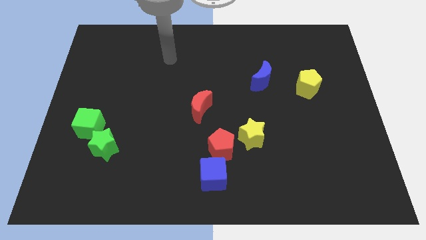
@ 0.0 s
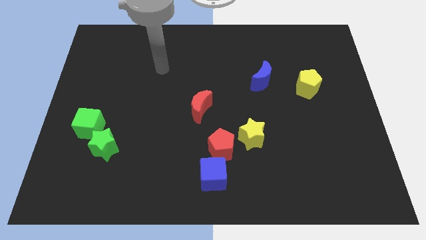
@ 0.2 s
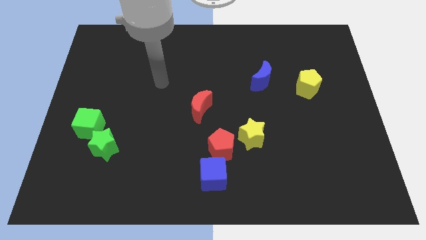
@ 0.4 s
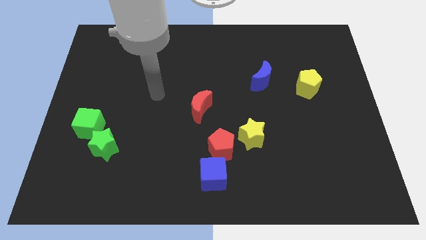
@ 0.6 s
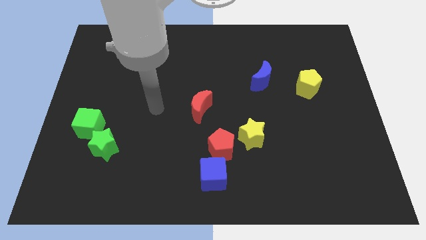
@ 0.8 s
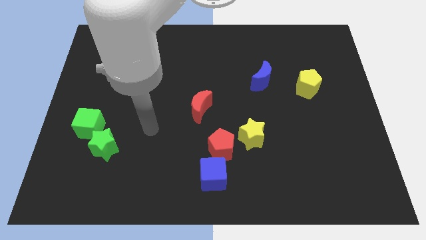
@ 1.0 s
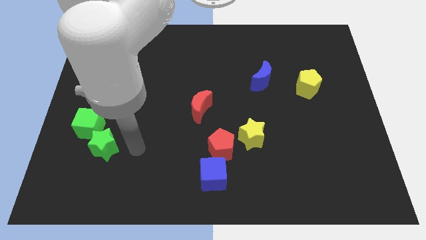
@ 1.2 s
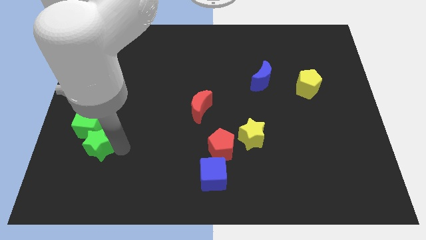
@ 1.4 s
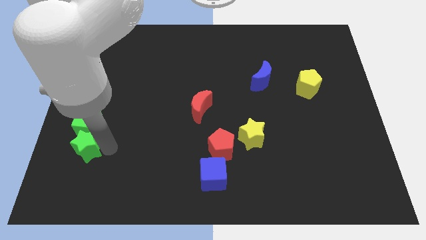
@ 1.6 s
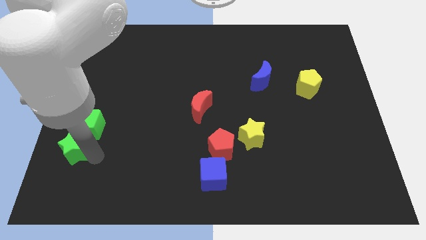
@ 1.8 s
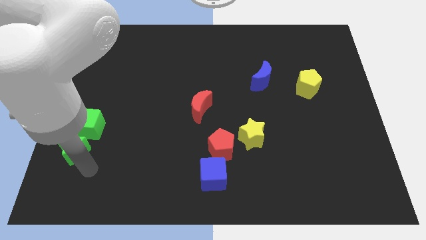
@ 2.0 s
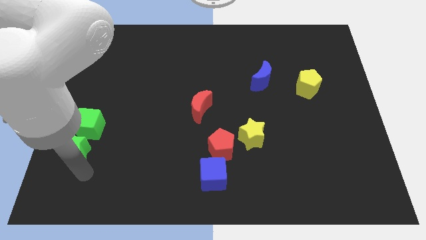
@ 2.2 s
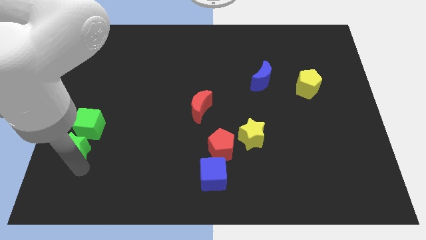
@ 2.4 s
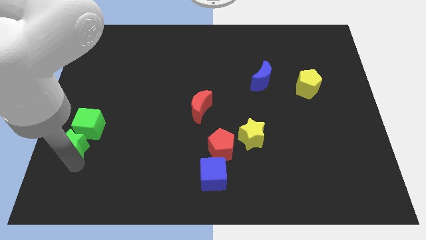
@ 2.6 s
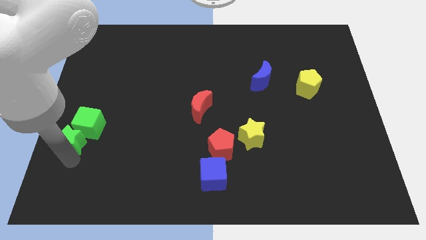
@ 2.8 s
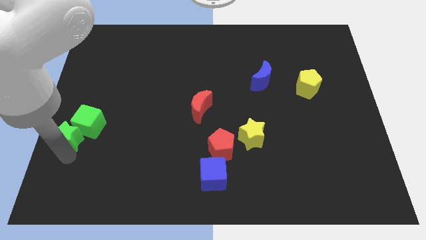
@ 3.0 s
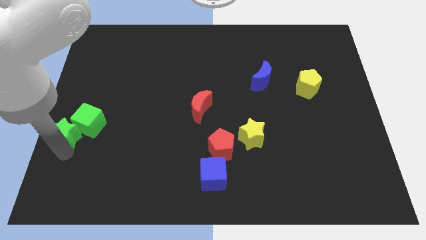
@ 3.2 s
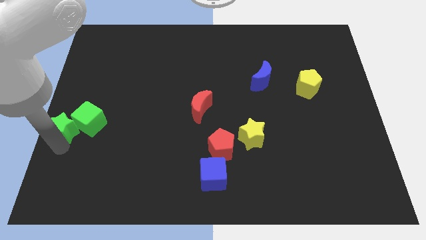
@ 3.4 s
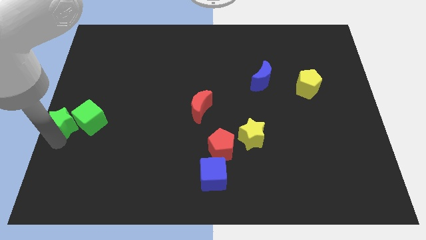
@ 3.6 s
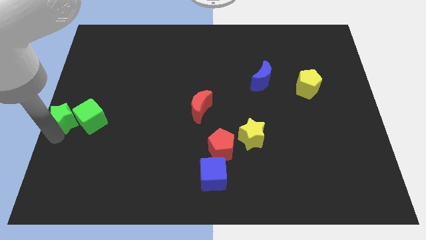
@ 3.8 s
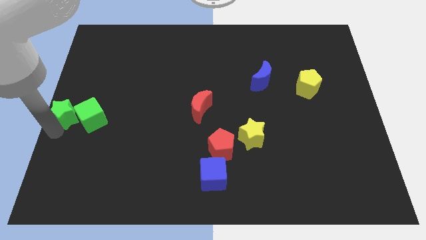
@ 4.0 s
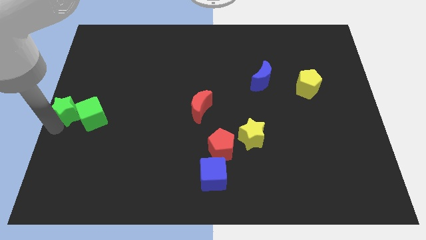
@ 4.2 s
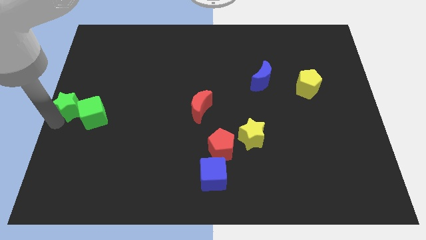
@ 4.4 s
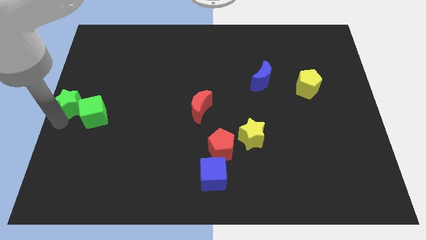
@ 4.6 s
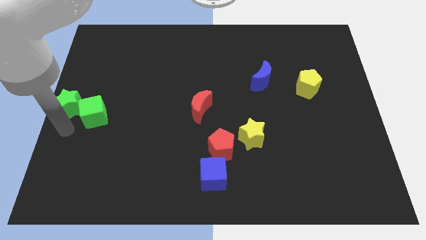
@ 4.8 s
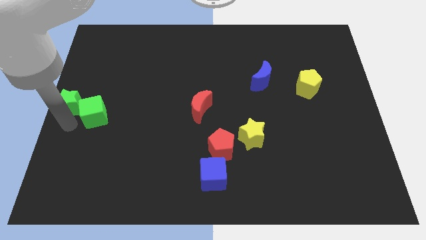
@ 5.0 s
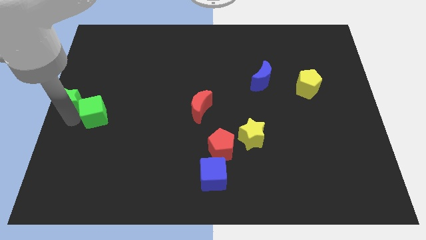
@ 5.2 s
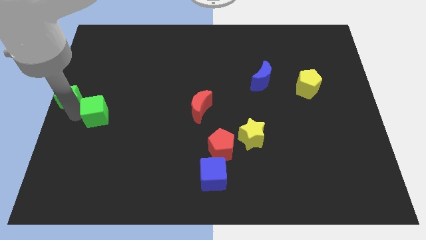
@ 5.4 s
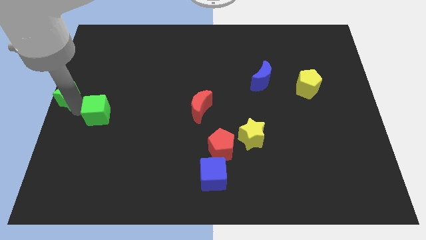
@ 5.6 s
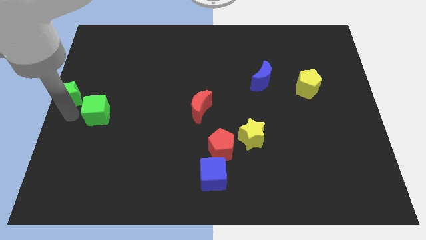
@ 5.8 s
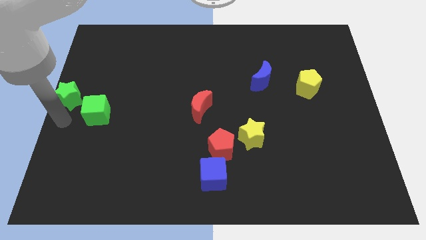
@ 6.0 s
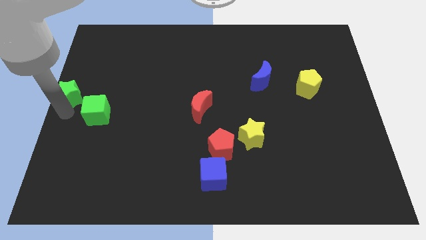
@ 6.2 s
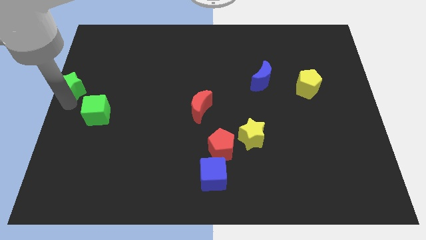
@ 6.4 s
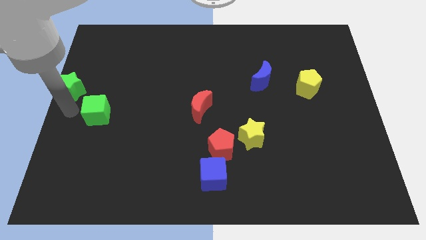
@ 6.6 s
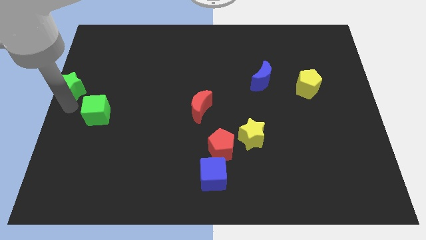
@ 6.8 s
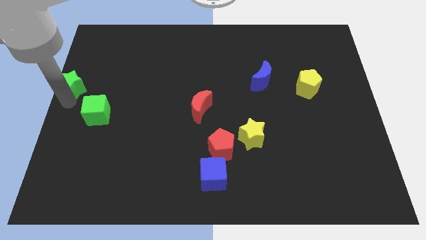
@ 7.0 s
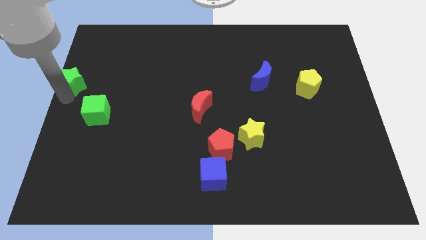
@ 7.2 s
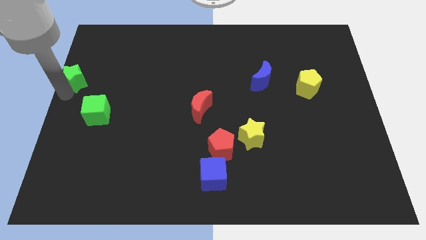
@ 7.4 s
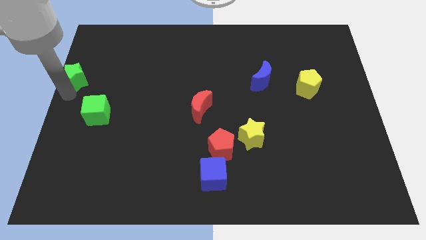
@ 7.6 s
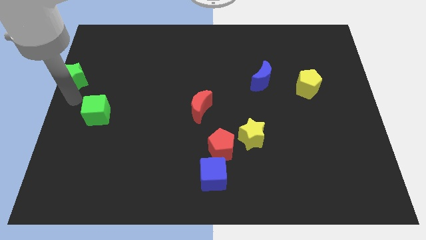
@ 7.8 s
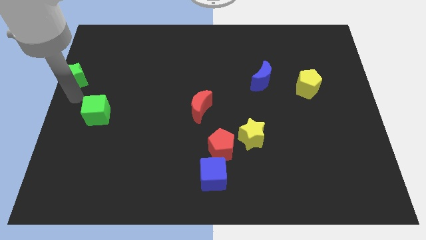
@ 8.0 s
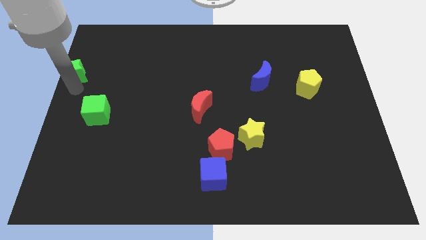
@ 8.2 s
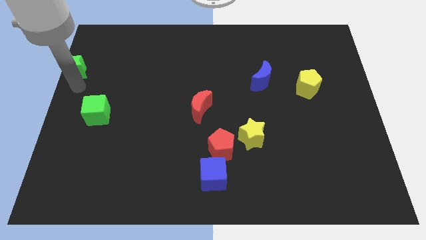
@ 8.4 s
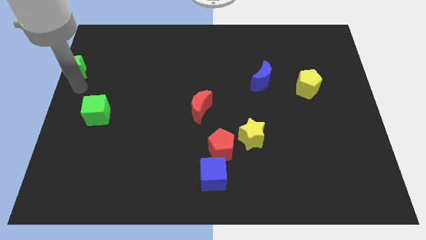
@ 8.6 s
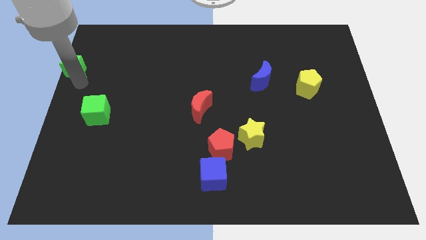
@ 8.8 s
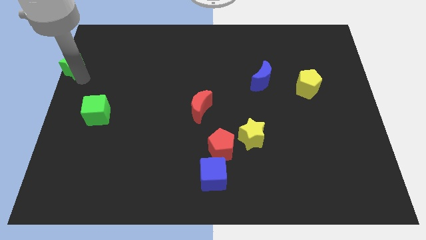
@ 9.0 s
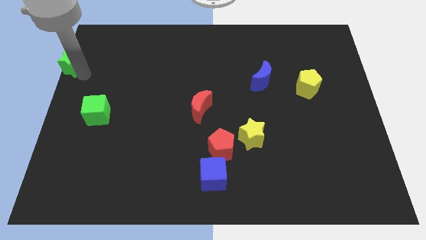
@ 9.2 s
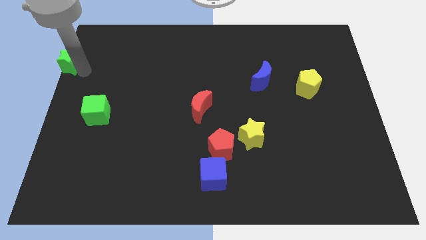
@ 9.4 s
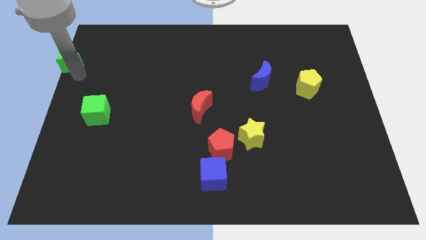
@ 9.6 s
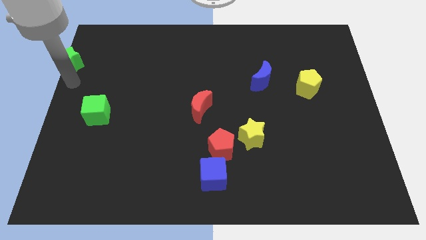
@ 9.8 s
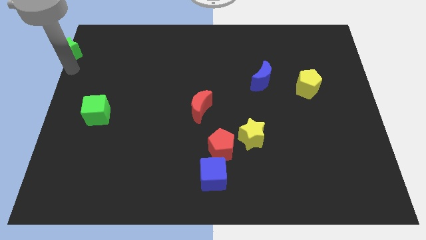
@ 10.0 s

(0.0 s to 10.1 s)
put the green star to the top left of the board

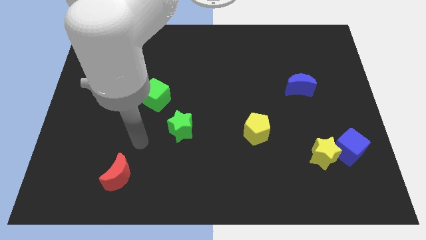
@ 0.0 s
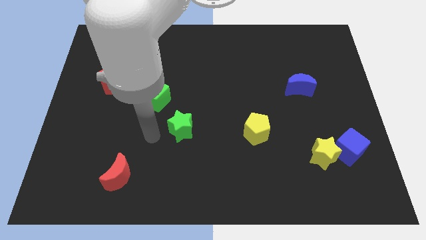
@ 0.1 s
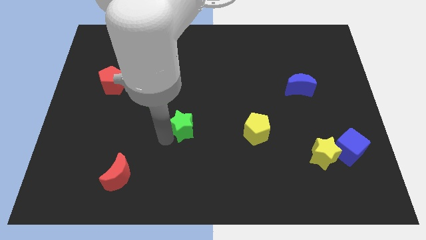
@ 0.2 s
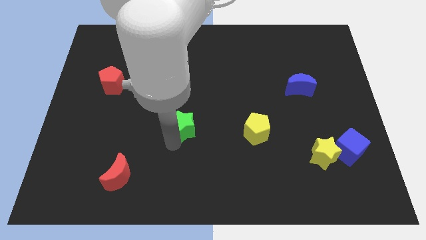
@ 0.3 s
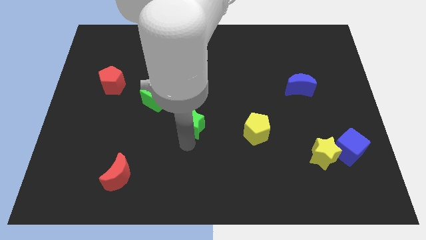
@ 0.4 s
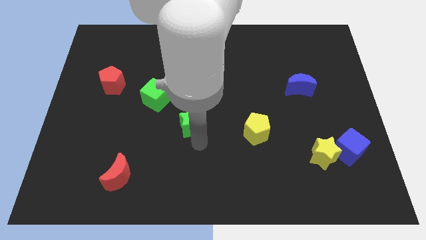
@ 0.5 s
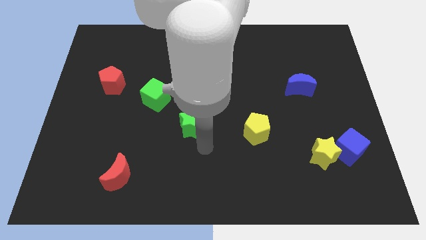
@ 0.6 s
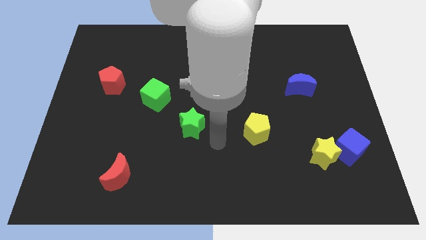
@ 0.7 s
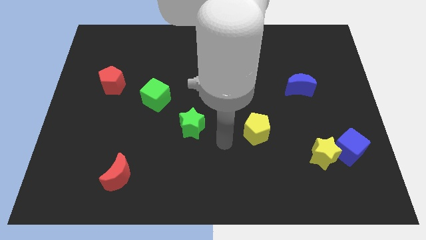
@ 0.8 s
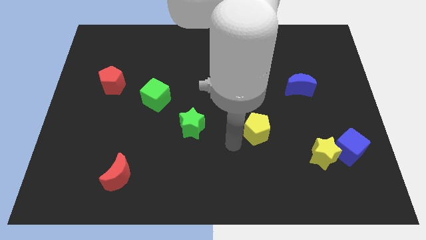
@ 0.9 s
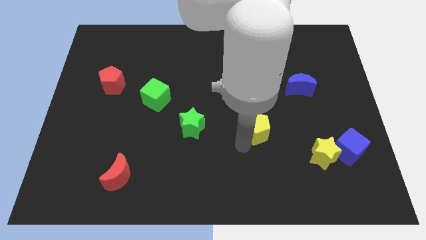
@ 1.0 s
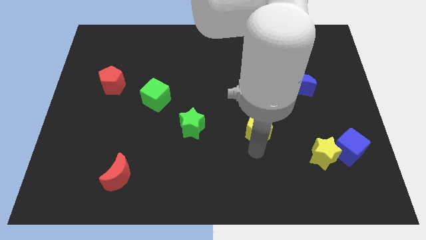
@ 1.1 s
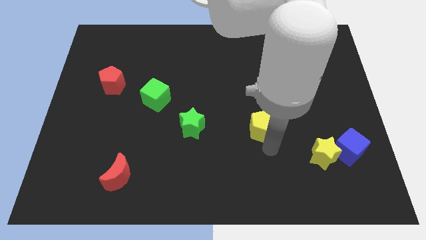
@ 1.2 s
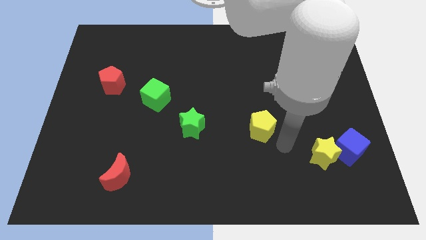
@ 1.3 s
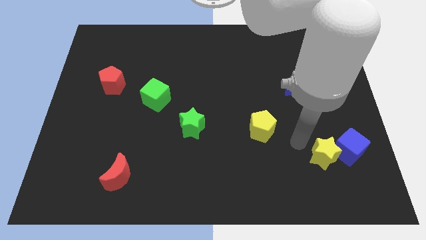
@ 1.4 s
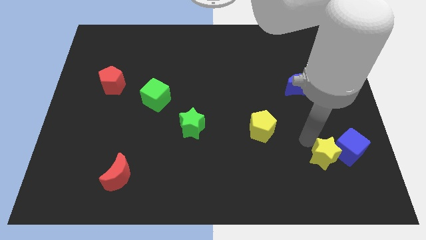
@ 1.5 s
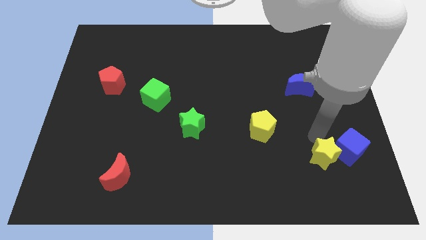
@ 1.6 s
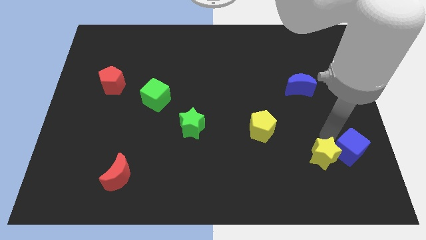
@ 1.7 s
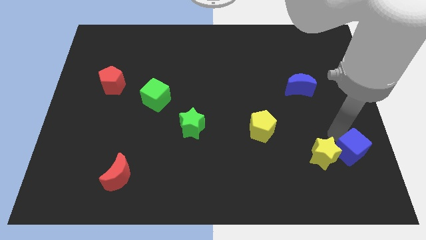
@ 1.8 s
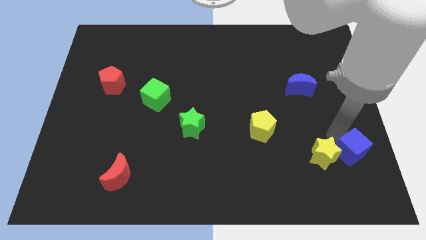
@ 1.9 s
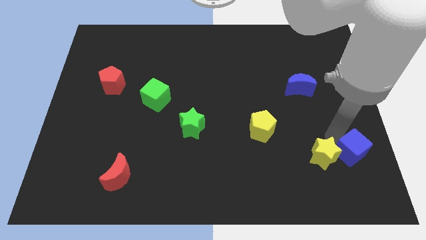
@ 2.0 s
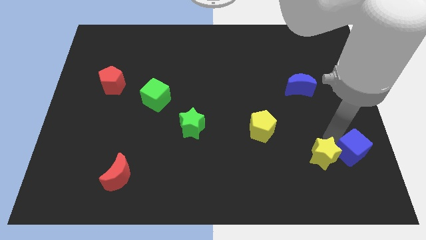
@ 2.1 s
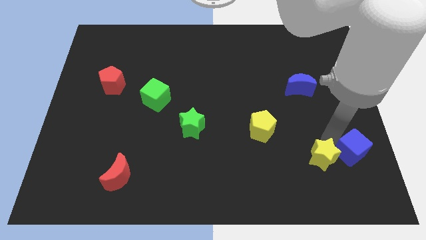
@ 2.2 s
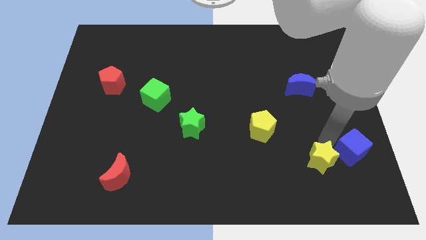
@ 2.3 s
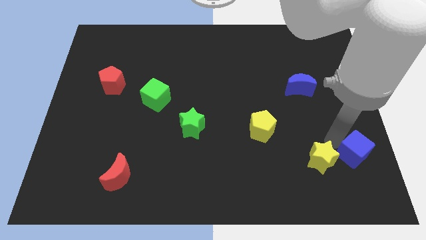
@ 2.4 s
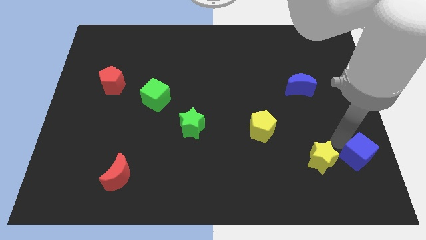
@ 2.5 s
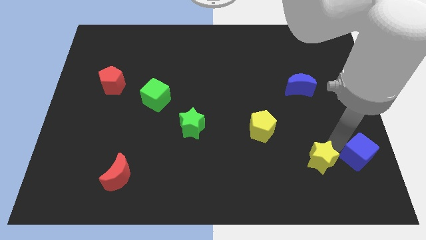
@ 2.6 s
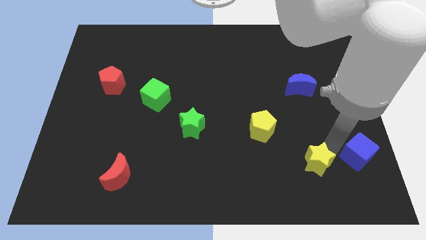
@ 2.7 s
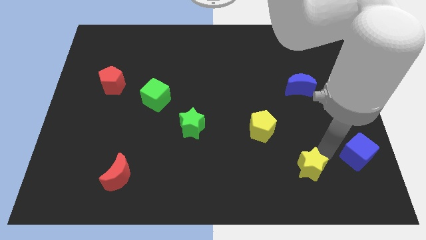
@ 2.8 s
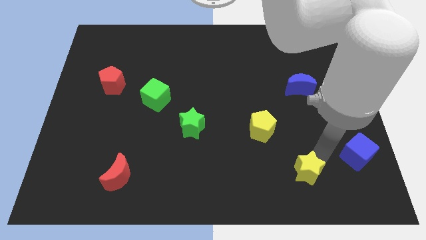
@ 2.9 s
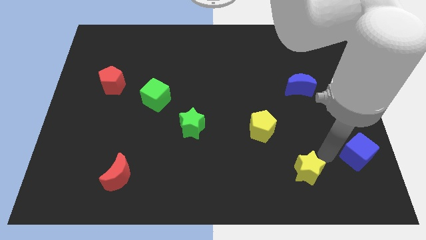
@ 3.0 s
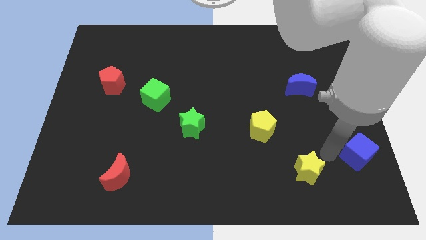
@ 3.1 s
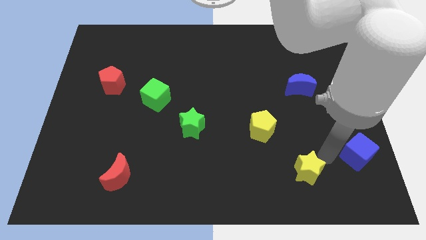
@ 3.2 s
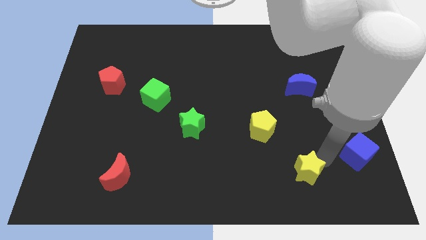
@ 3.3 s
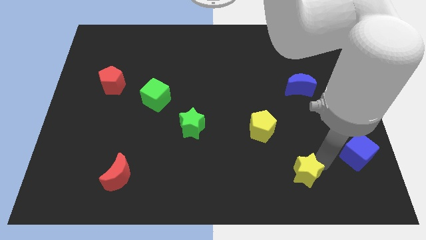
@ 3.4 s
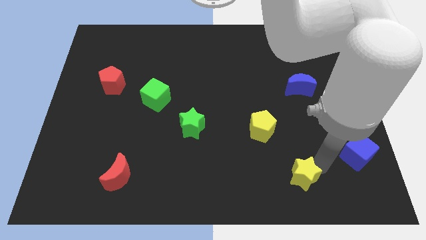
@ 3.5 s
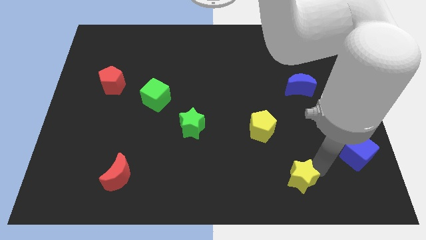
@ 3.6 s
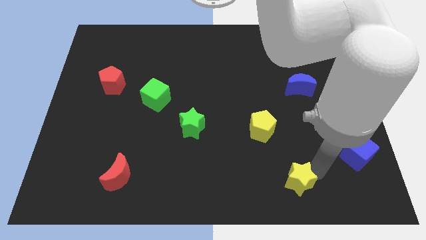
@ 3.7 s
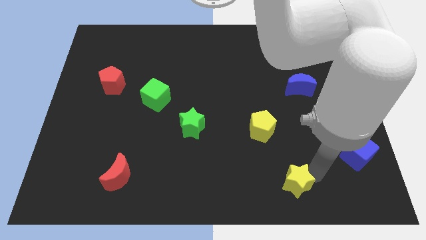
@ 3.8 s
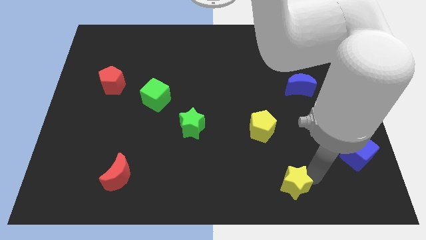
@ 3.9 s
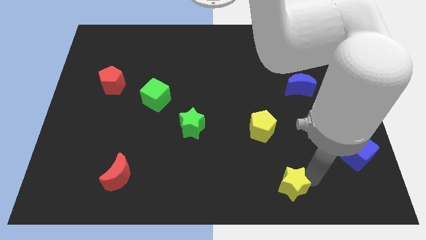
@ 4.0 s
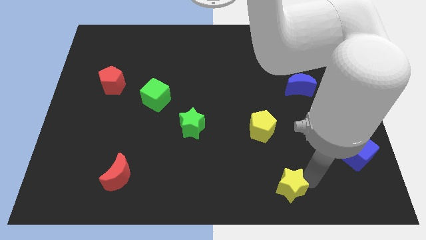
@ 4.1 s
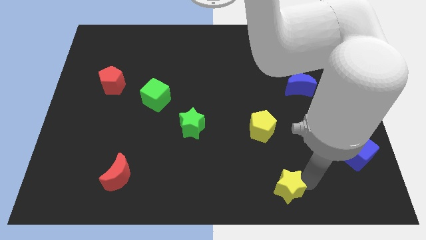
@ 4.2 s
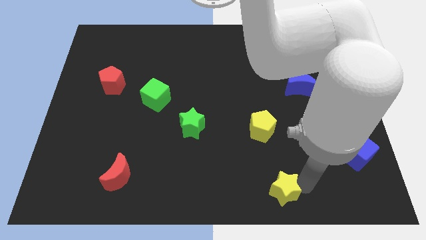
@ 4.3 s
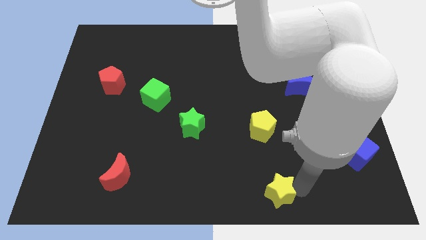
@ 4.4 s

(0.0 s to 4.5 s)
put the yellow star to the bottom side
